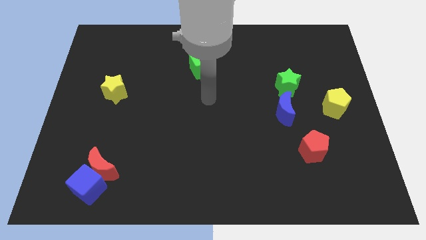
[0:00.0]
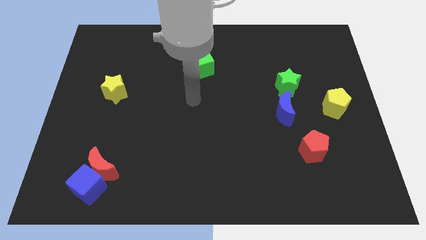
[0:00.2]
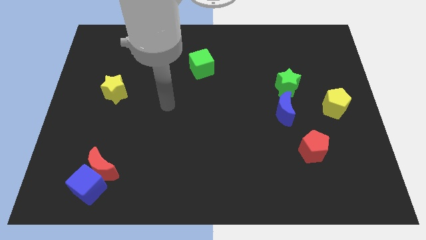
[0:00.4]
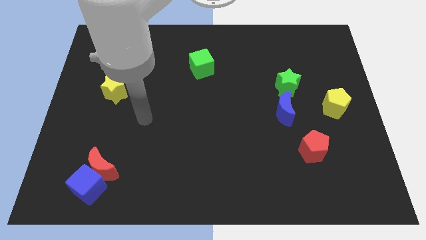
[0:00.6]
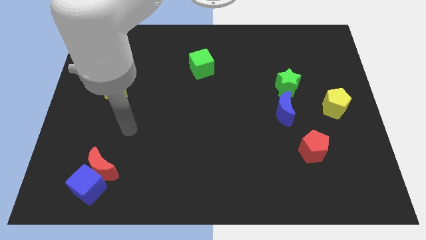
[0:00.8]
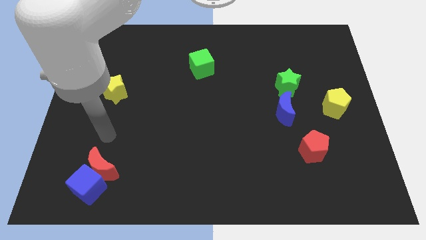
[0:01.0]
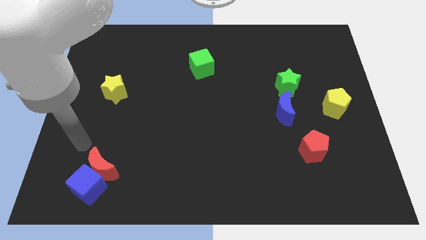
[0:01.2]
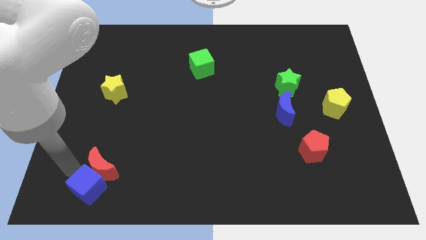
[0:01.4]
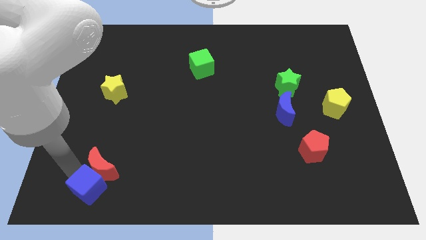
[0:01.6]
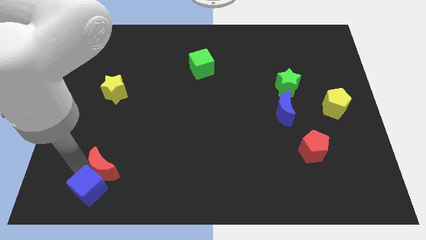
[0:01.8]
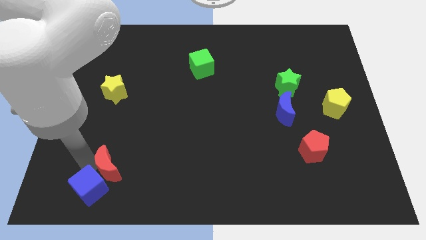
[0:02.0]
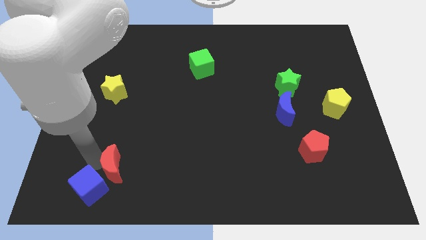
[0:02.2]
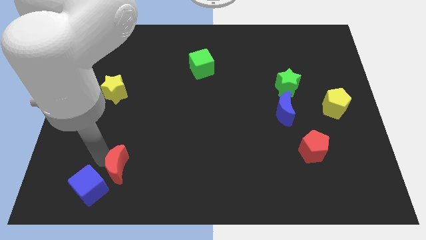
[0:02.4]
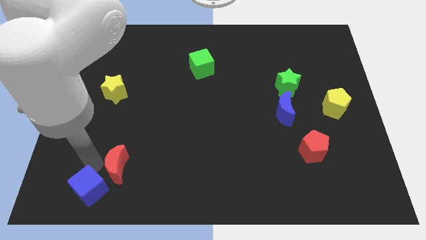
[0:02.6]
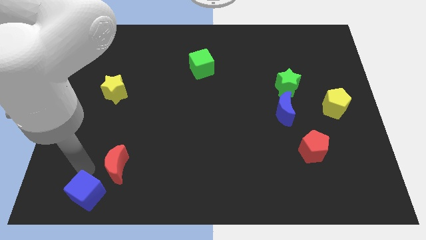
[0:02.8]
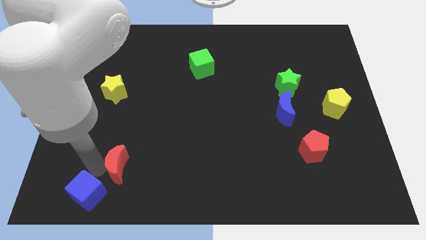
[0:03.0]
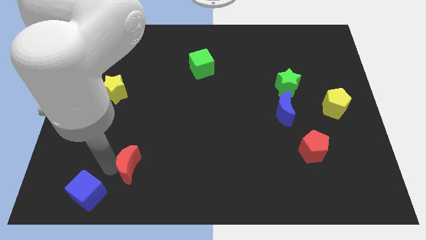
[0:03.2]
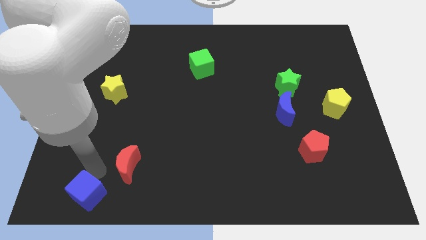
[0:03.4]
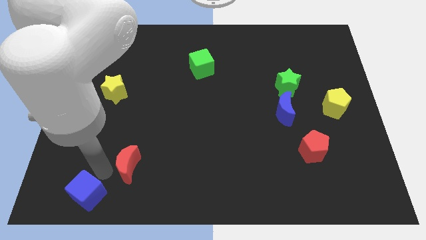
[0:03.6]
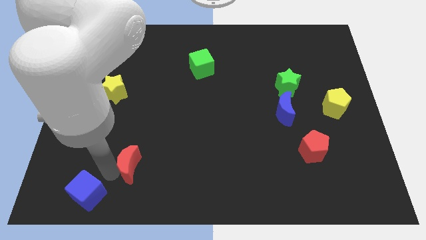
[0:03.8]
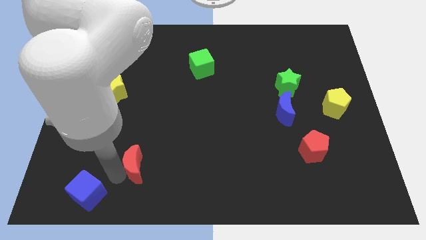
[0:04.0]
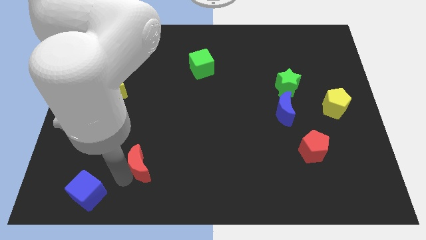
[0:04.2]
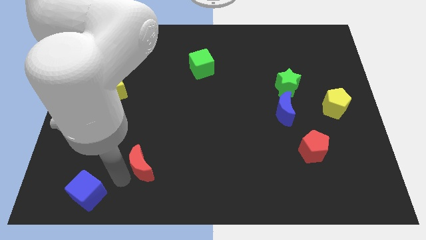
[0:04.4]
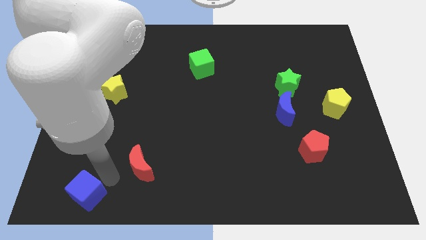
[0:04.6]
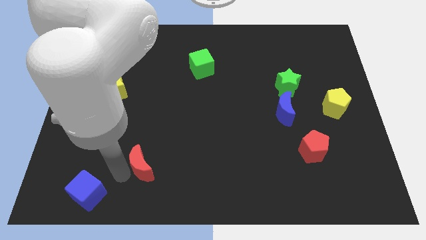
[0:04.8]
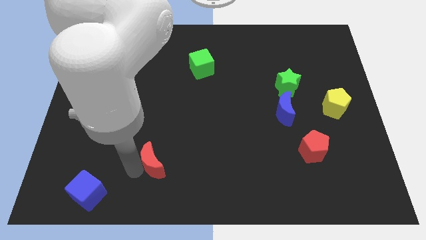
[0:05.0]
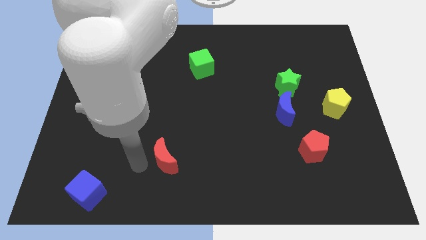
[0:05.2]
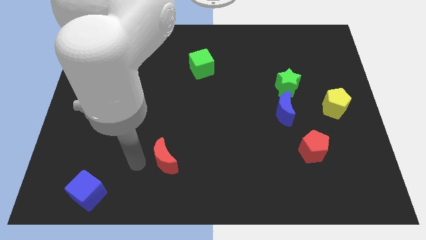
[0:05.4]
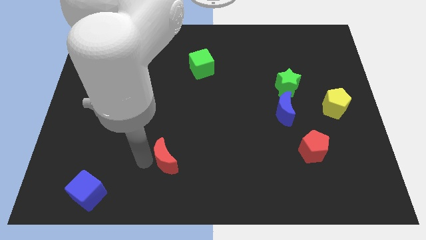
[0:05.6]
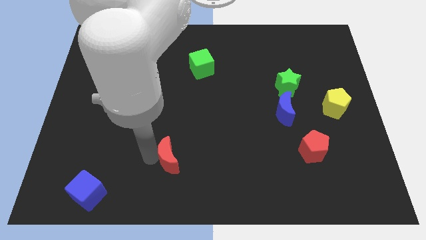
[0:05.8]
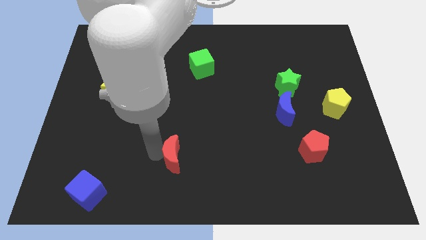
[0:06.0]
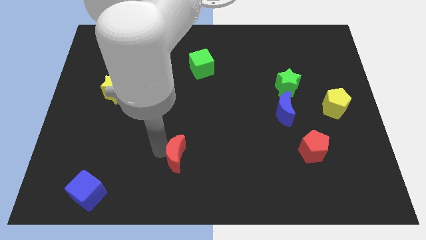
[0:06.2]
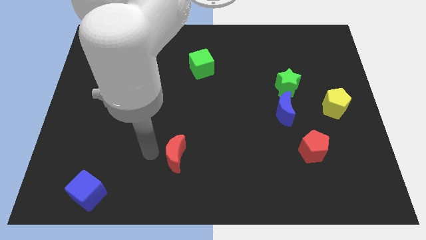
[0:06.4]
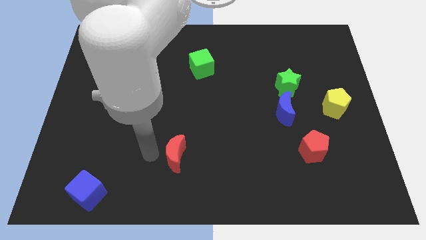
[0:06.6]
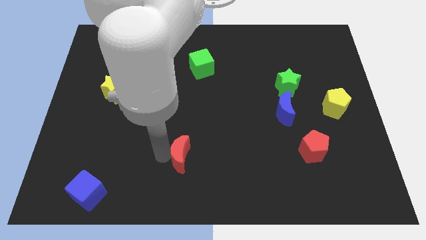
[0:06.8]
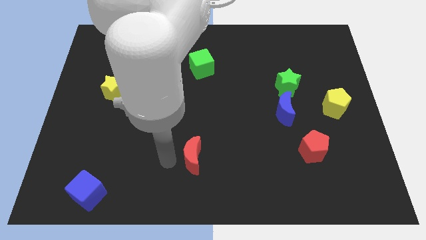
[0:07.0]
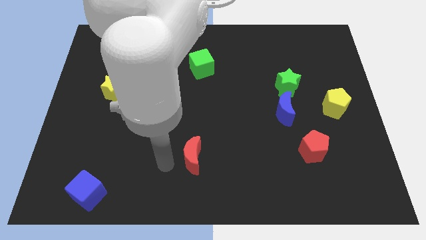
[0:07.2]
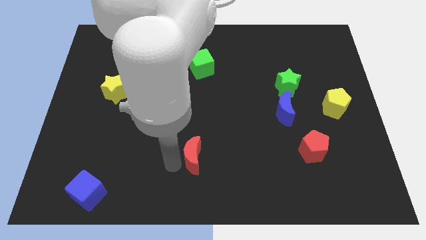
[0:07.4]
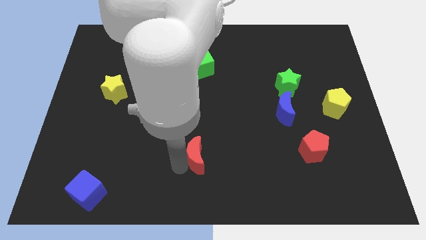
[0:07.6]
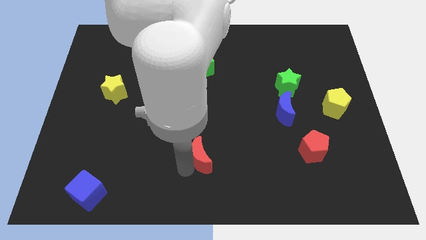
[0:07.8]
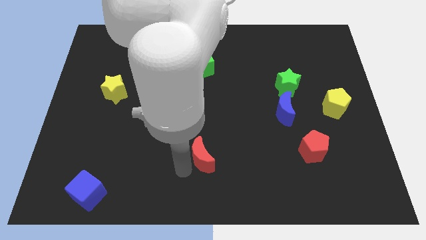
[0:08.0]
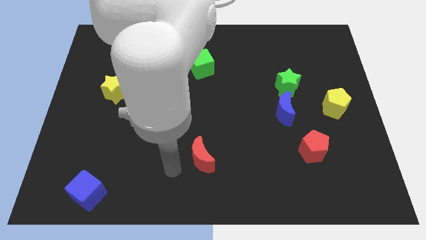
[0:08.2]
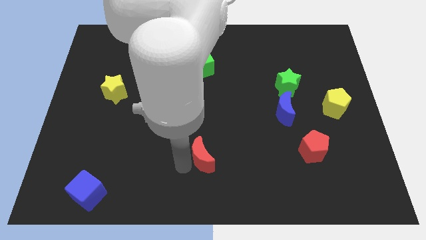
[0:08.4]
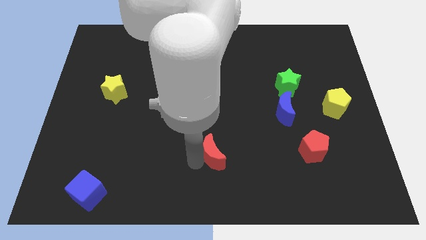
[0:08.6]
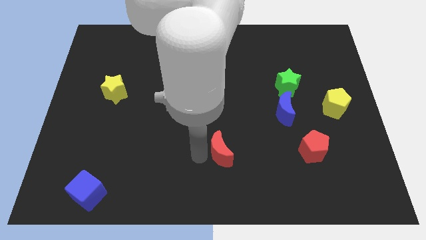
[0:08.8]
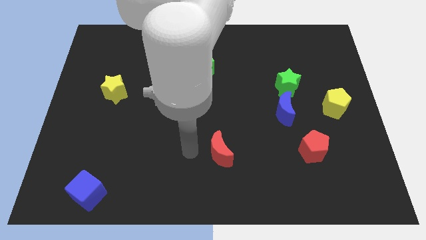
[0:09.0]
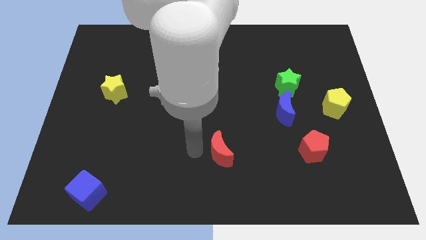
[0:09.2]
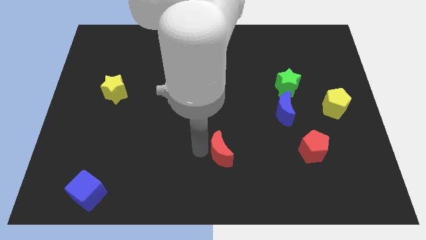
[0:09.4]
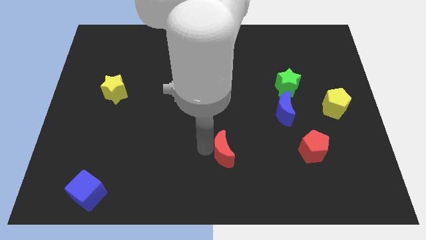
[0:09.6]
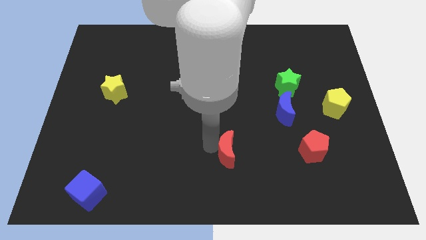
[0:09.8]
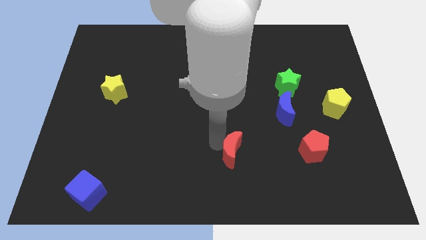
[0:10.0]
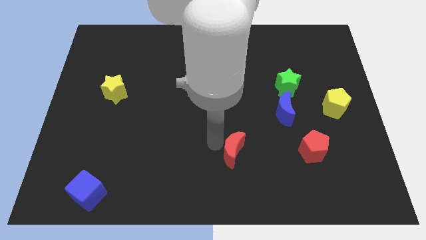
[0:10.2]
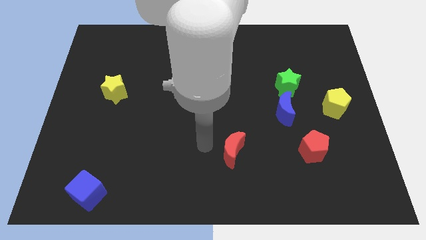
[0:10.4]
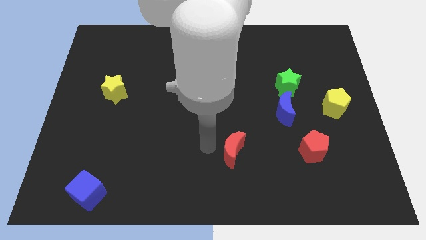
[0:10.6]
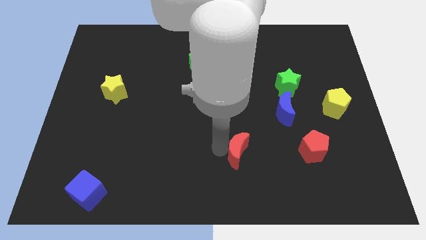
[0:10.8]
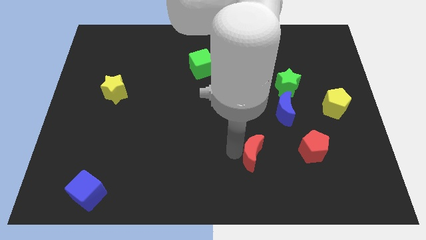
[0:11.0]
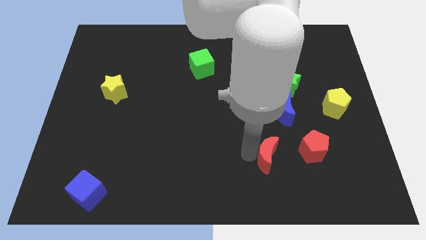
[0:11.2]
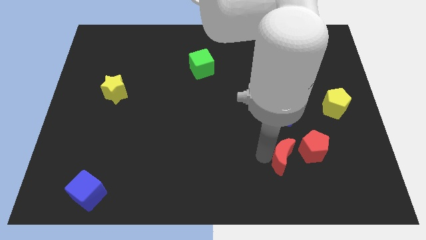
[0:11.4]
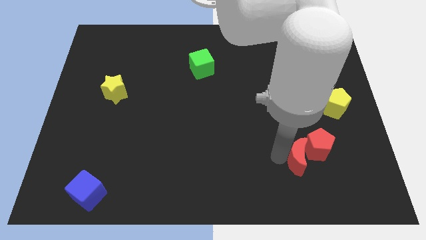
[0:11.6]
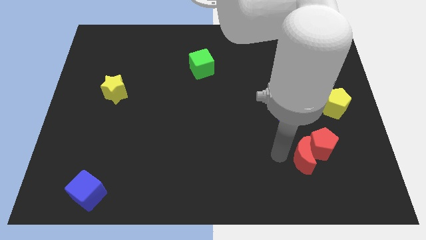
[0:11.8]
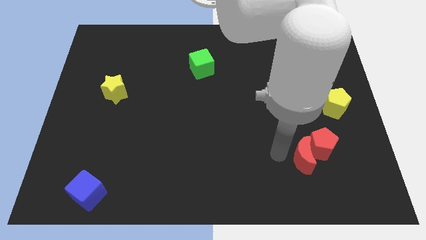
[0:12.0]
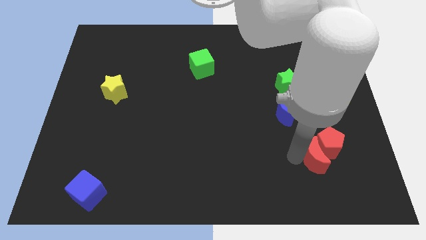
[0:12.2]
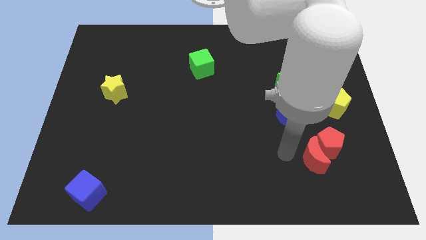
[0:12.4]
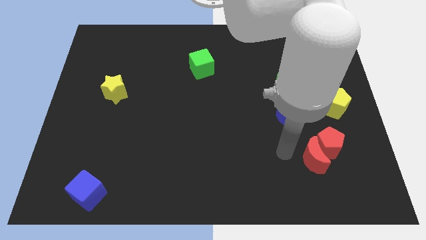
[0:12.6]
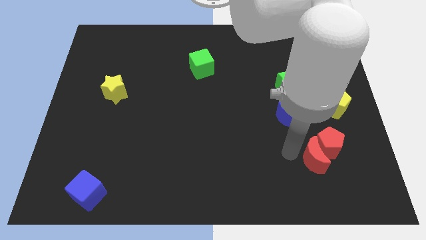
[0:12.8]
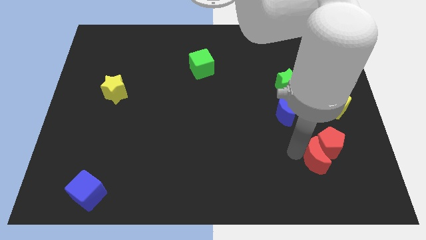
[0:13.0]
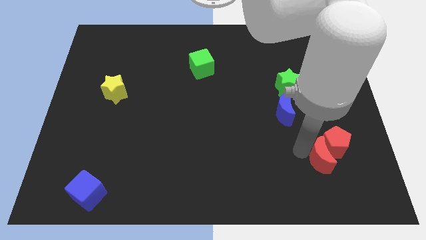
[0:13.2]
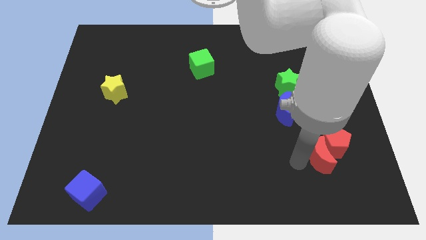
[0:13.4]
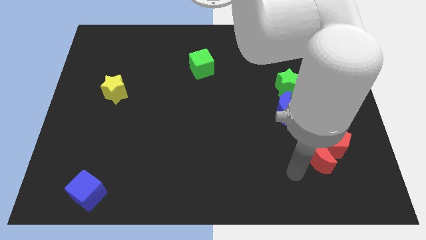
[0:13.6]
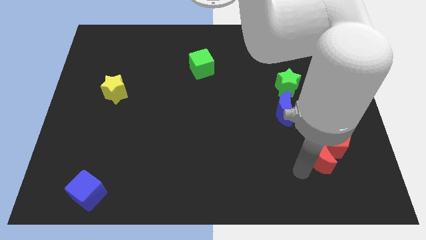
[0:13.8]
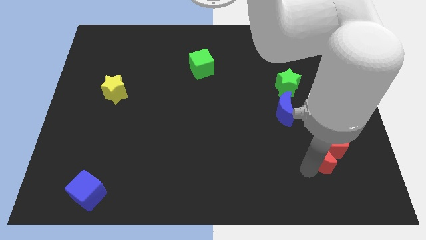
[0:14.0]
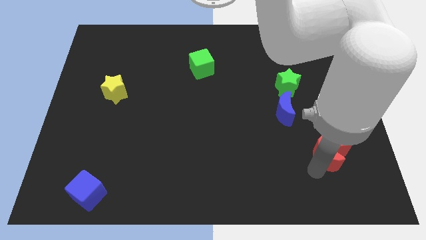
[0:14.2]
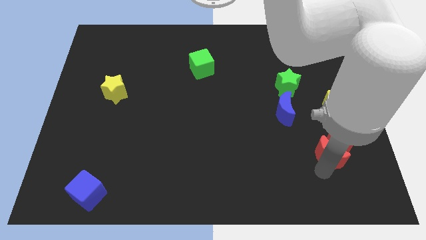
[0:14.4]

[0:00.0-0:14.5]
push the red moon to the bottom of the yellow pentagon
